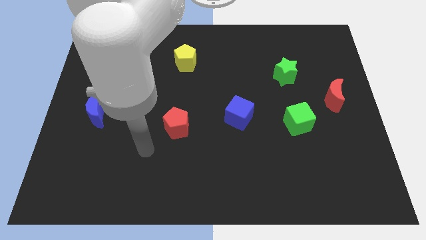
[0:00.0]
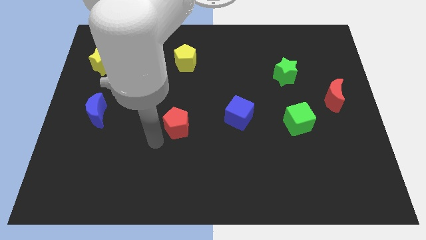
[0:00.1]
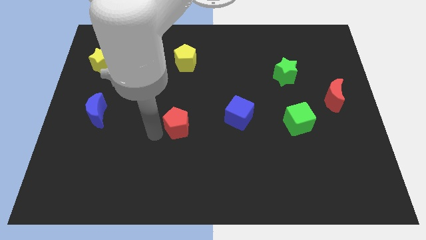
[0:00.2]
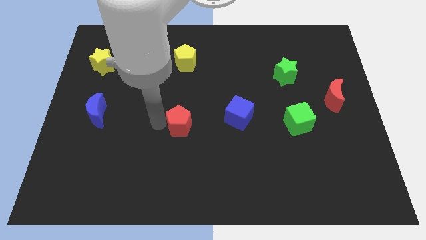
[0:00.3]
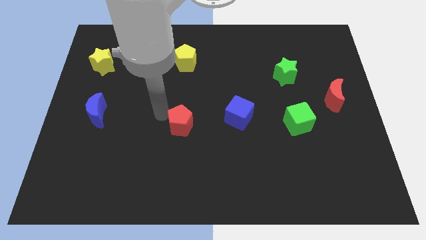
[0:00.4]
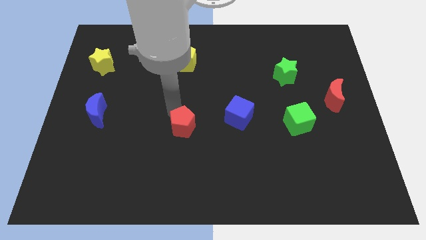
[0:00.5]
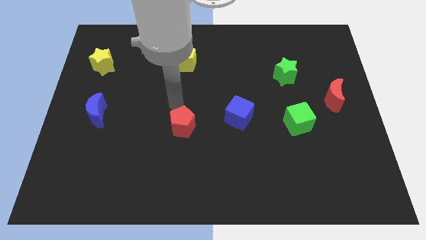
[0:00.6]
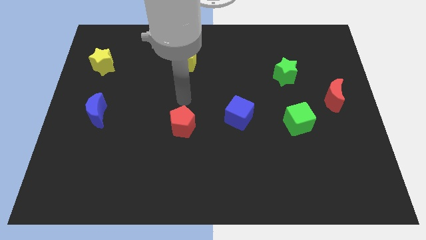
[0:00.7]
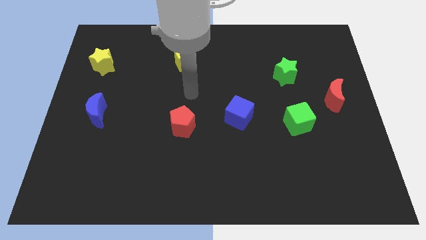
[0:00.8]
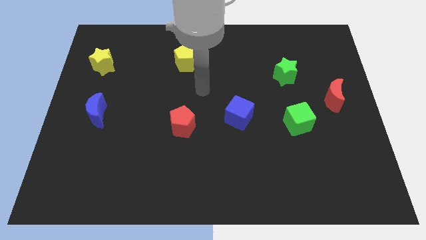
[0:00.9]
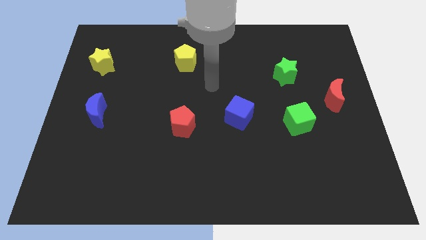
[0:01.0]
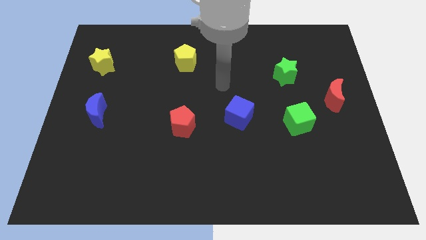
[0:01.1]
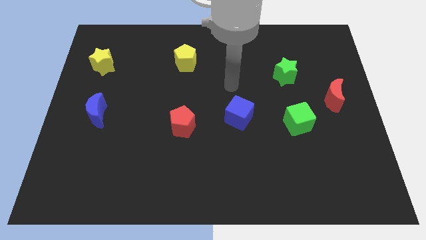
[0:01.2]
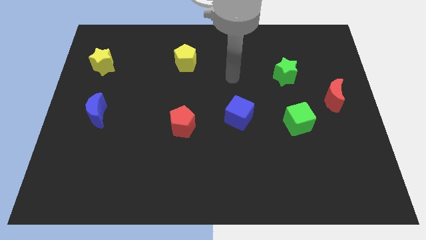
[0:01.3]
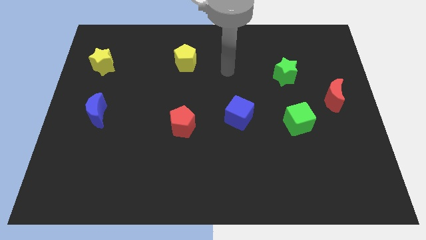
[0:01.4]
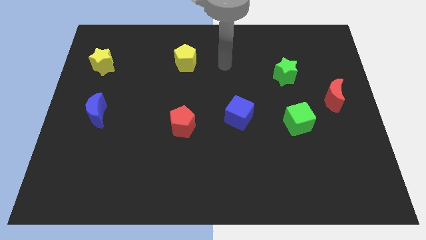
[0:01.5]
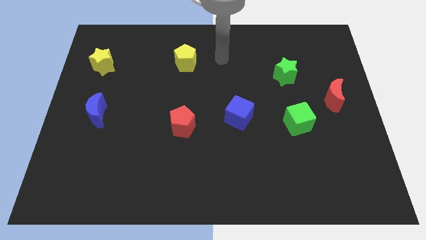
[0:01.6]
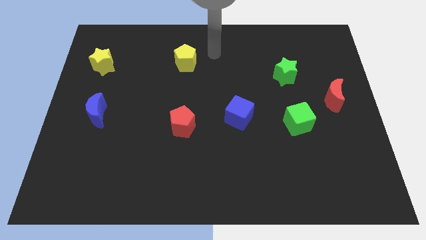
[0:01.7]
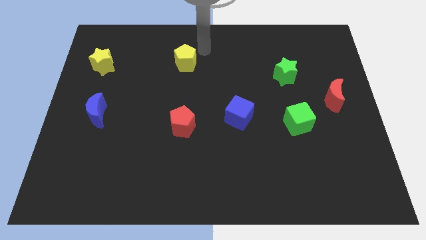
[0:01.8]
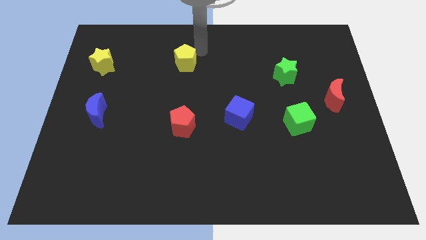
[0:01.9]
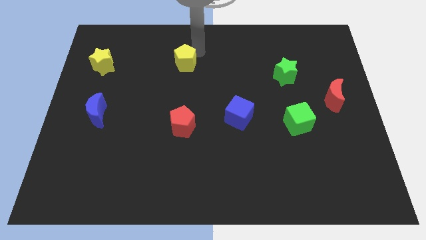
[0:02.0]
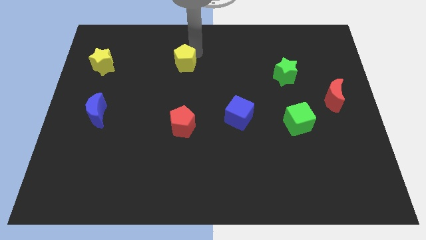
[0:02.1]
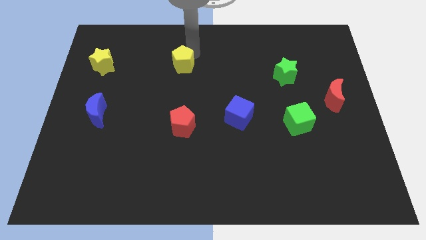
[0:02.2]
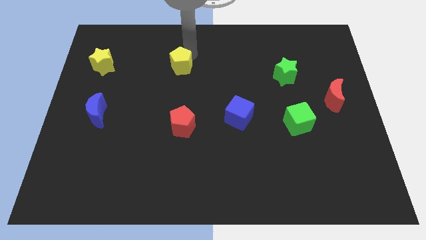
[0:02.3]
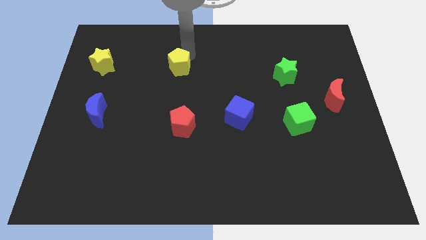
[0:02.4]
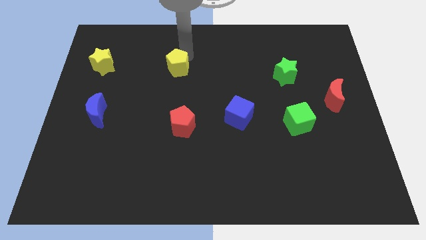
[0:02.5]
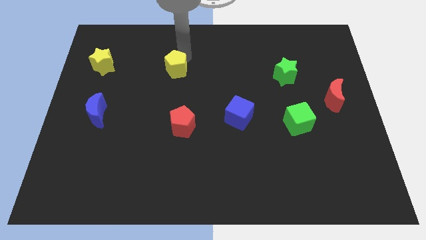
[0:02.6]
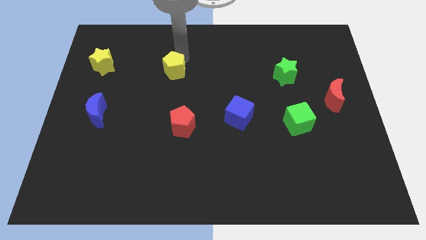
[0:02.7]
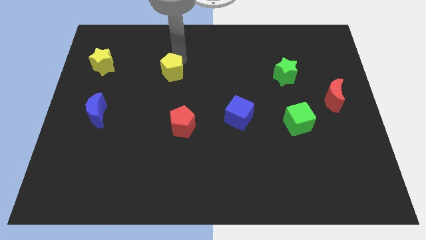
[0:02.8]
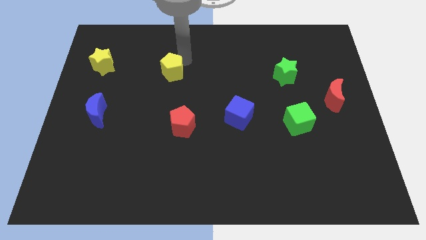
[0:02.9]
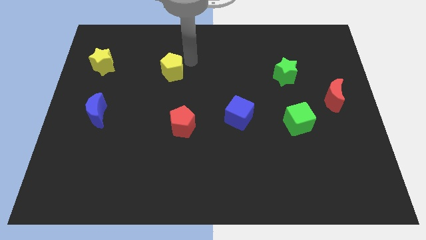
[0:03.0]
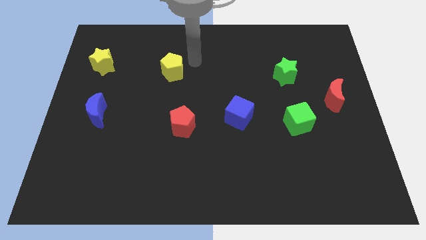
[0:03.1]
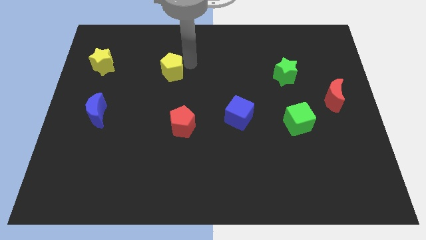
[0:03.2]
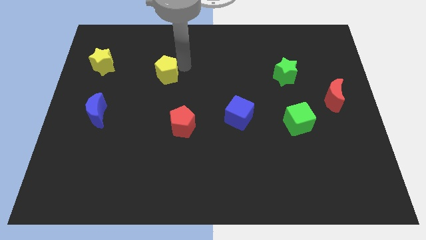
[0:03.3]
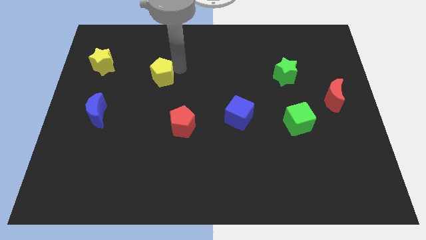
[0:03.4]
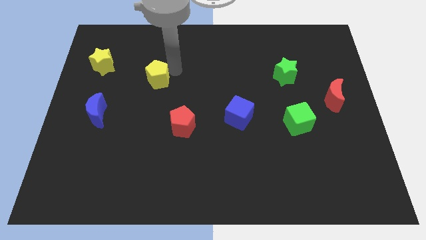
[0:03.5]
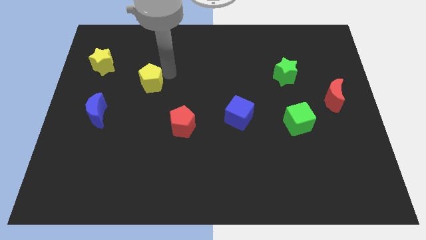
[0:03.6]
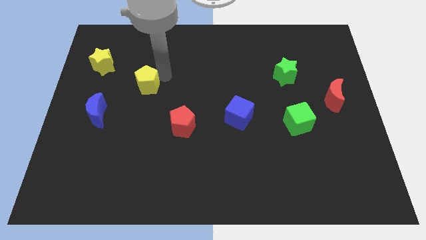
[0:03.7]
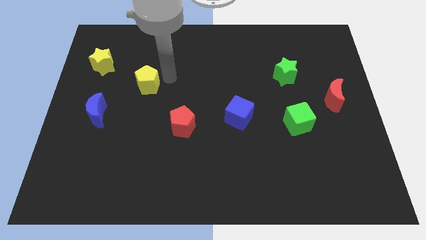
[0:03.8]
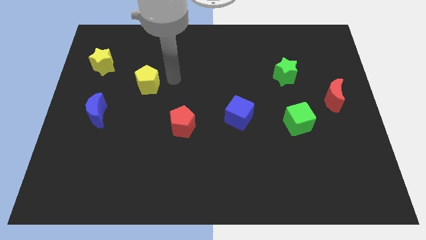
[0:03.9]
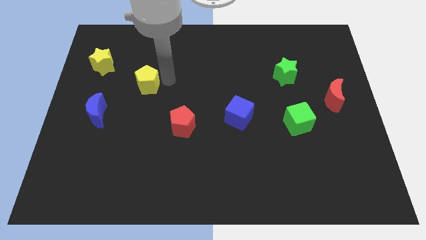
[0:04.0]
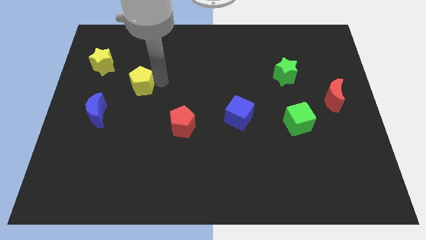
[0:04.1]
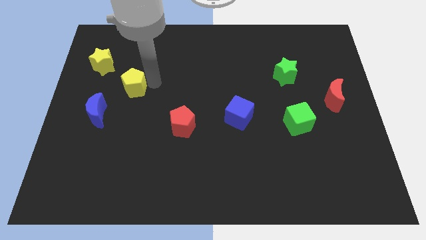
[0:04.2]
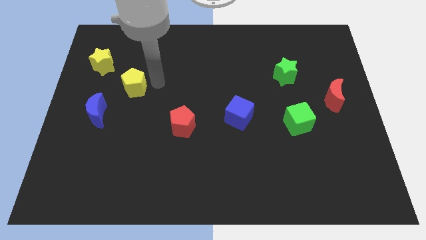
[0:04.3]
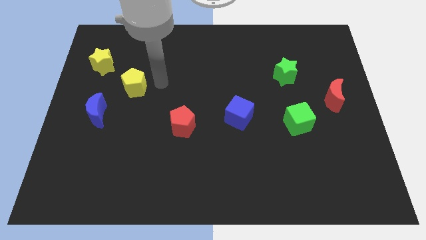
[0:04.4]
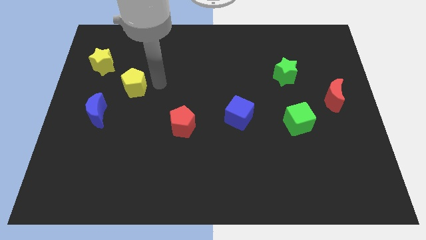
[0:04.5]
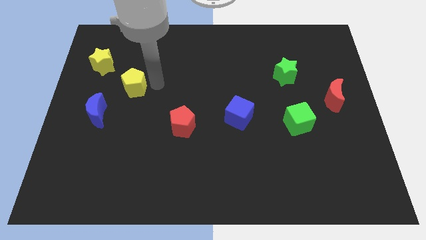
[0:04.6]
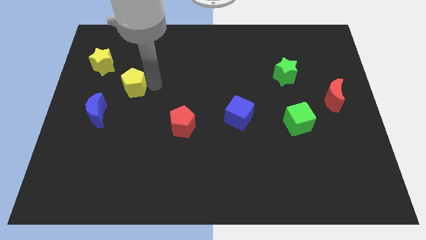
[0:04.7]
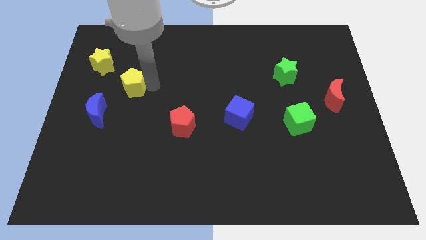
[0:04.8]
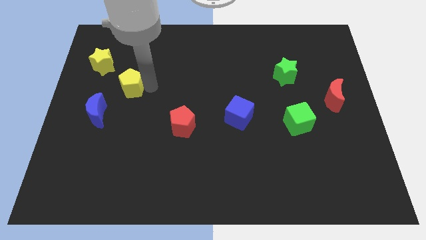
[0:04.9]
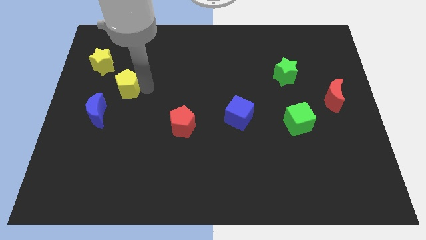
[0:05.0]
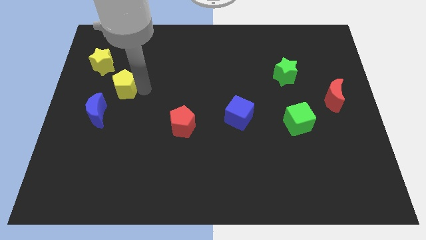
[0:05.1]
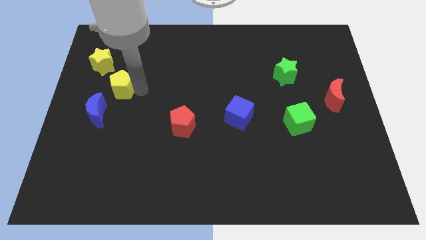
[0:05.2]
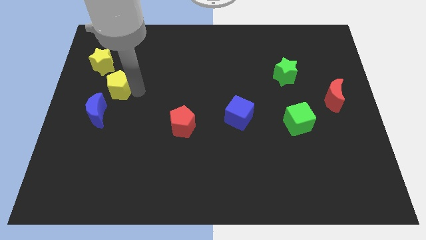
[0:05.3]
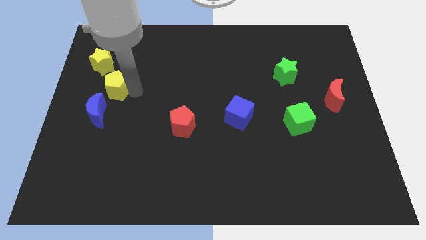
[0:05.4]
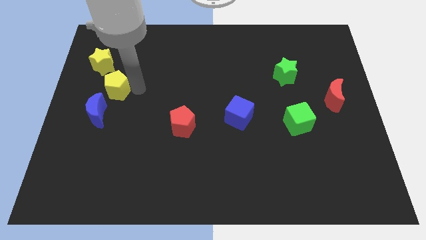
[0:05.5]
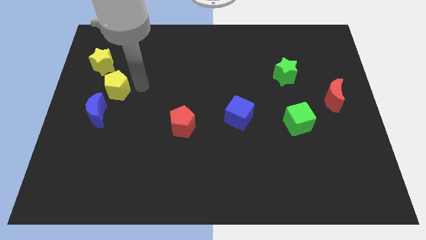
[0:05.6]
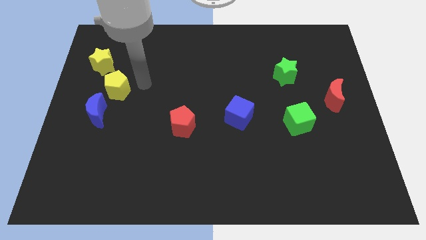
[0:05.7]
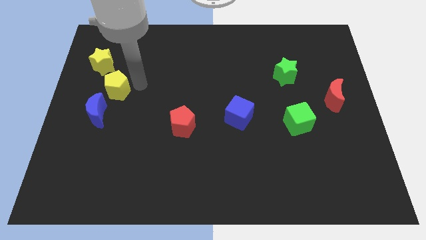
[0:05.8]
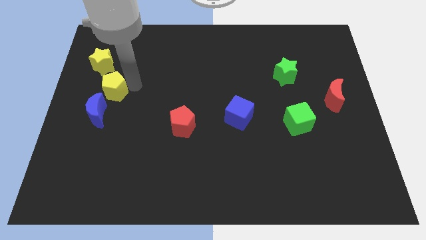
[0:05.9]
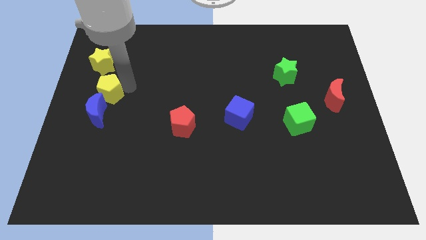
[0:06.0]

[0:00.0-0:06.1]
slide the yellow pentagon to the left side of the board

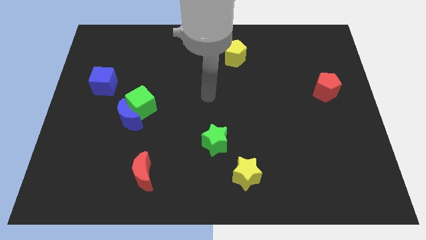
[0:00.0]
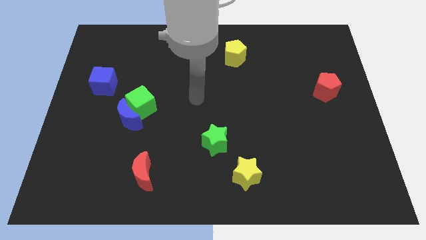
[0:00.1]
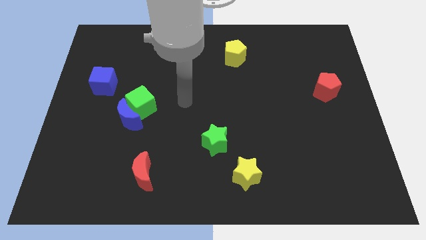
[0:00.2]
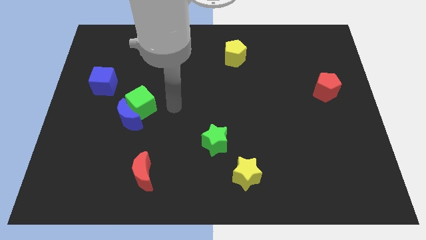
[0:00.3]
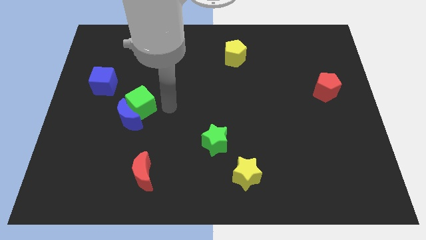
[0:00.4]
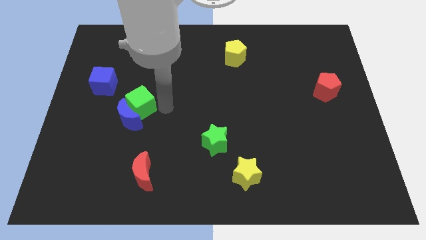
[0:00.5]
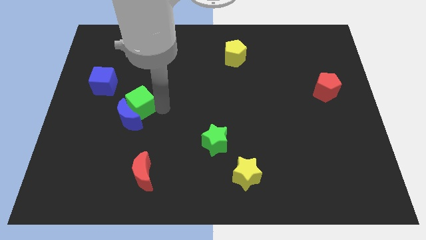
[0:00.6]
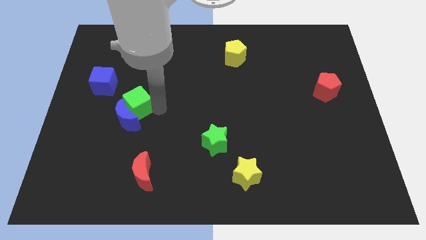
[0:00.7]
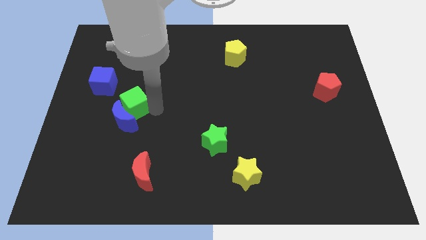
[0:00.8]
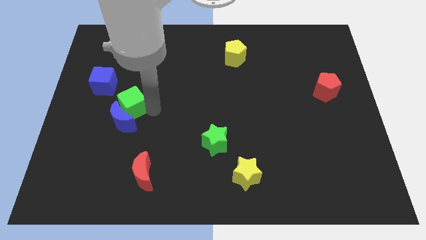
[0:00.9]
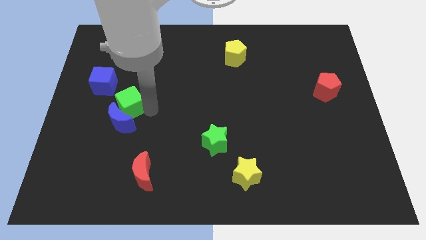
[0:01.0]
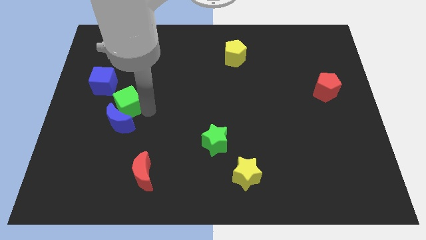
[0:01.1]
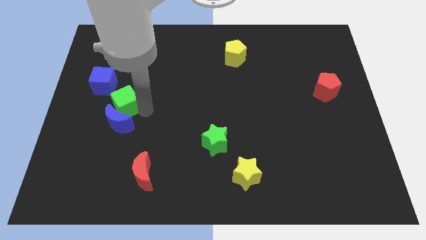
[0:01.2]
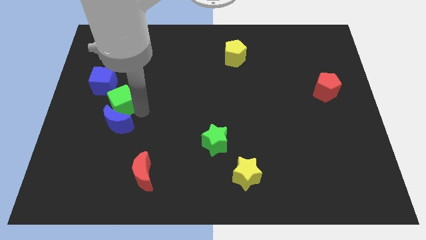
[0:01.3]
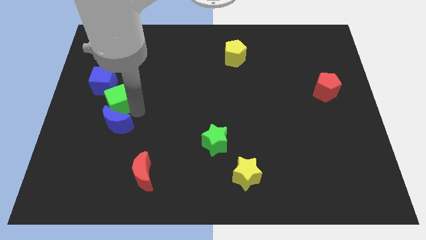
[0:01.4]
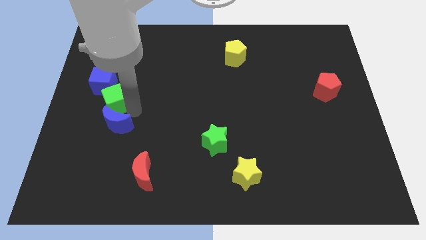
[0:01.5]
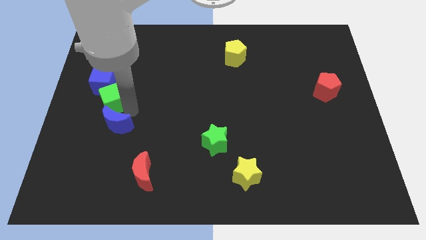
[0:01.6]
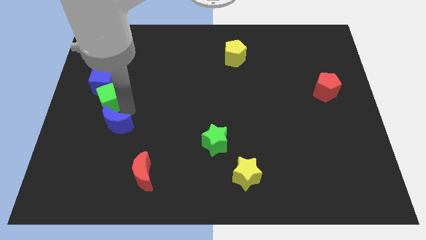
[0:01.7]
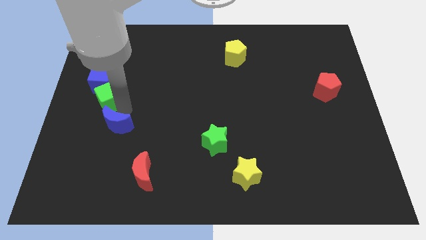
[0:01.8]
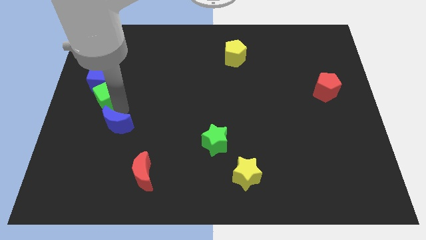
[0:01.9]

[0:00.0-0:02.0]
push the green cube to the center left
